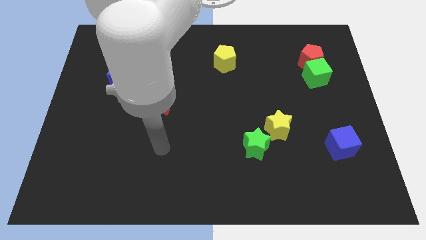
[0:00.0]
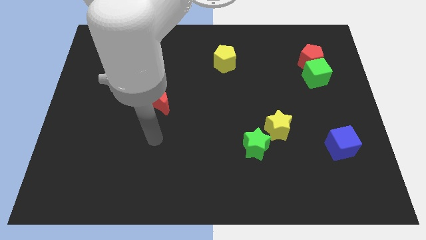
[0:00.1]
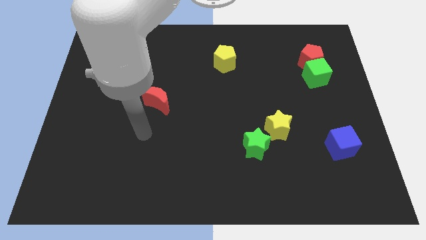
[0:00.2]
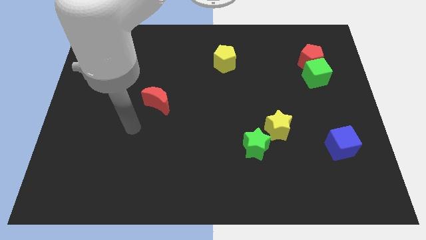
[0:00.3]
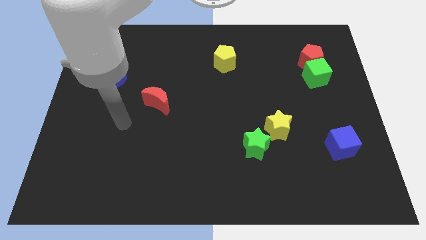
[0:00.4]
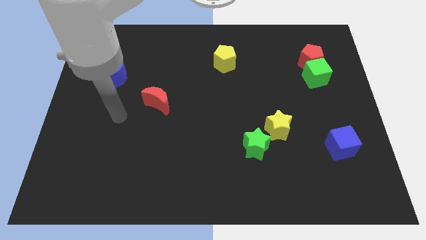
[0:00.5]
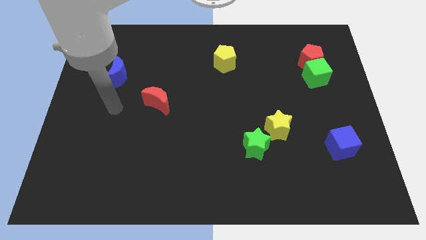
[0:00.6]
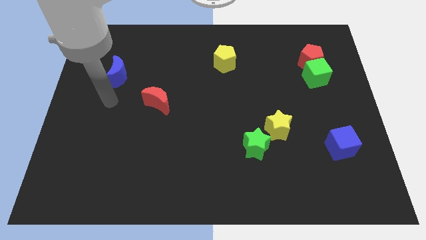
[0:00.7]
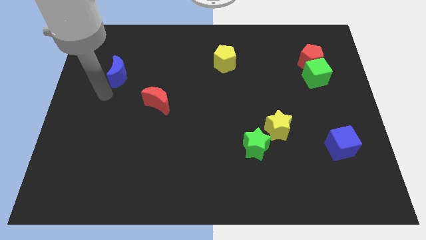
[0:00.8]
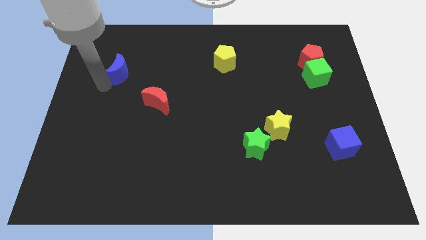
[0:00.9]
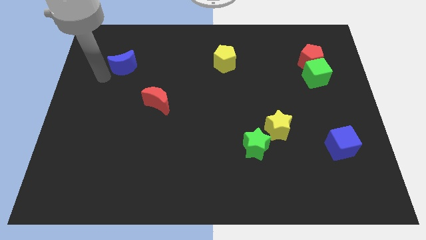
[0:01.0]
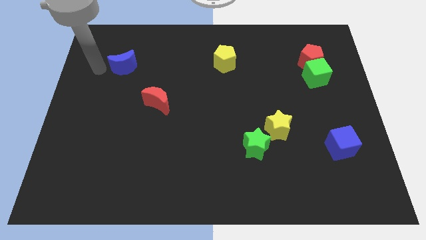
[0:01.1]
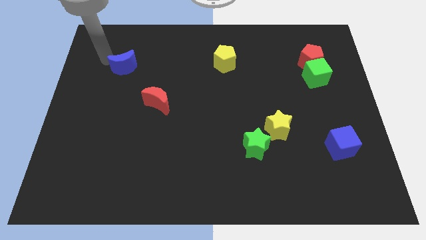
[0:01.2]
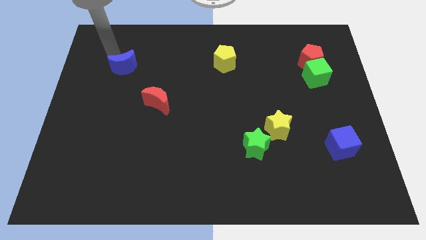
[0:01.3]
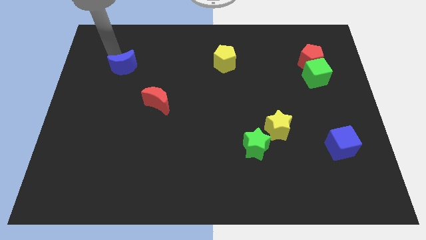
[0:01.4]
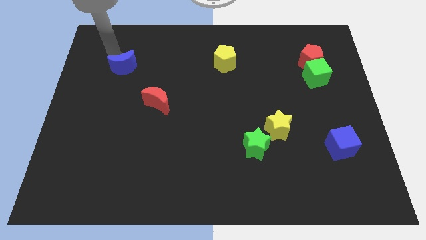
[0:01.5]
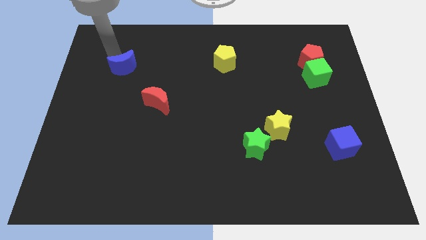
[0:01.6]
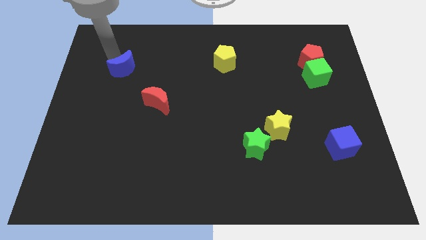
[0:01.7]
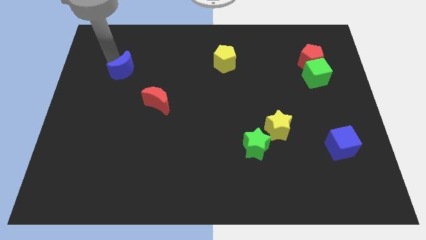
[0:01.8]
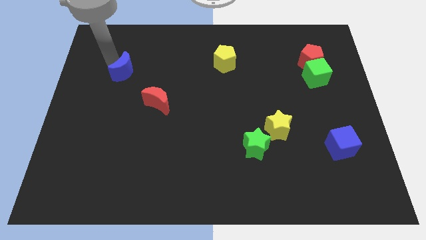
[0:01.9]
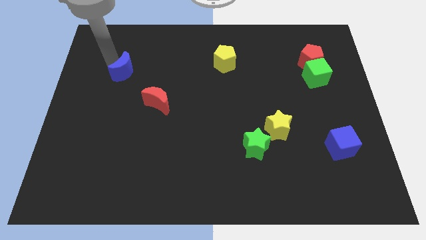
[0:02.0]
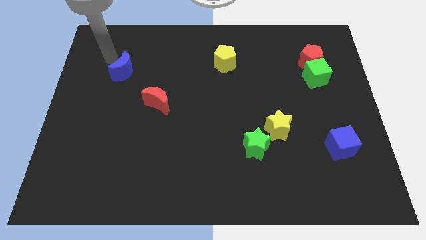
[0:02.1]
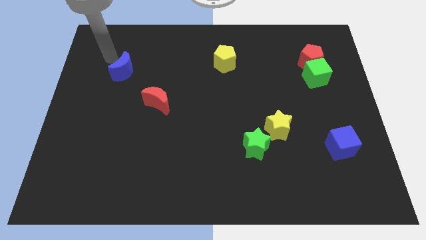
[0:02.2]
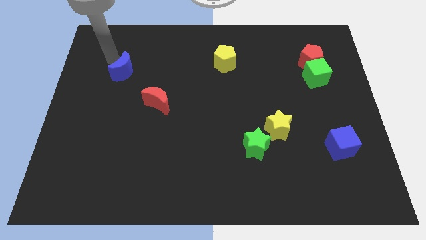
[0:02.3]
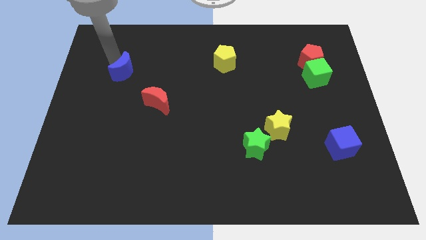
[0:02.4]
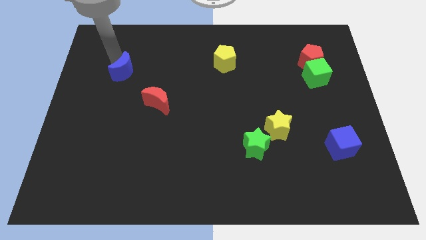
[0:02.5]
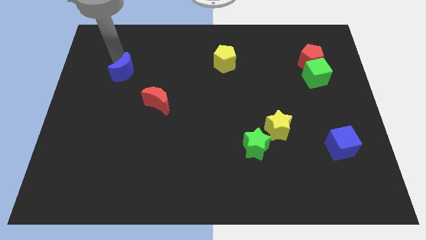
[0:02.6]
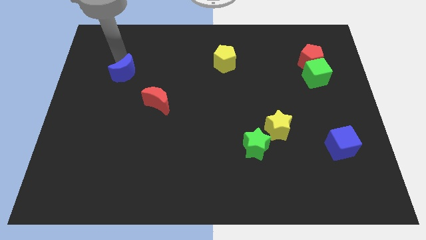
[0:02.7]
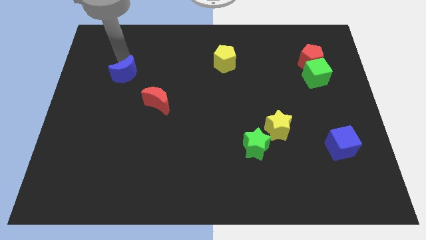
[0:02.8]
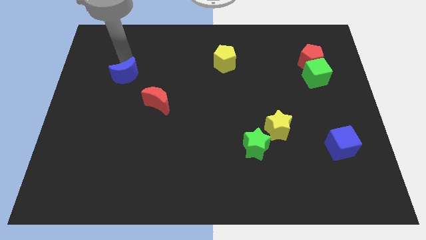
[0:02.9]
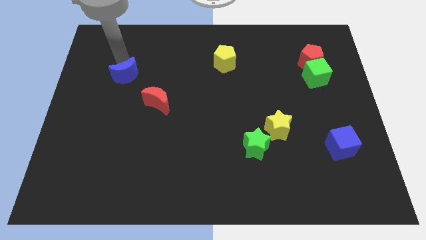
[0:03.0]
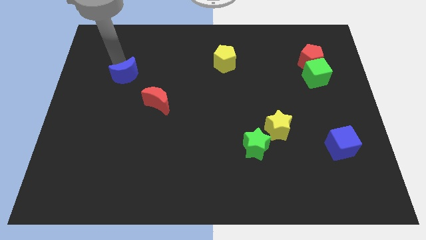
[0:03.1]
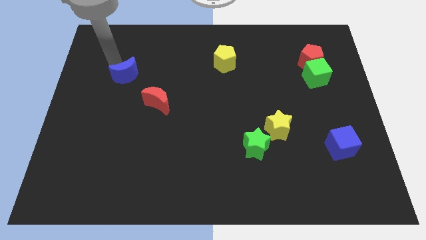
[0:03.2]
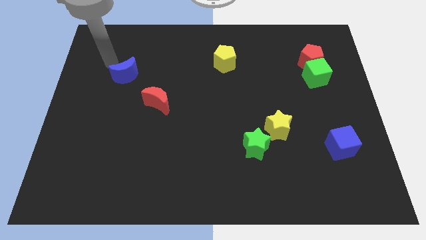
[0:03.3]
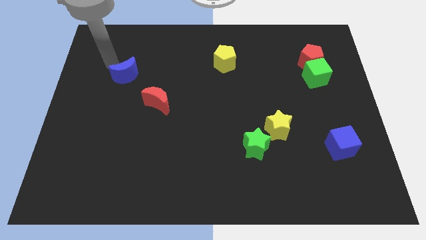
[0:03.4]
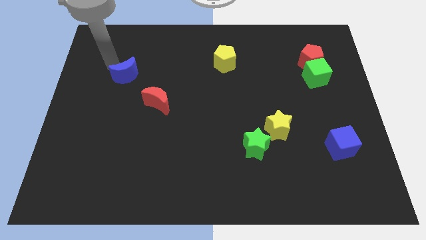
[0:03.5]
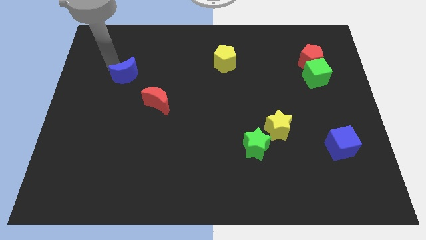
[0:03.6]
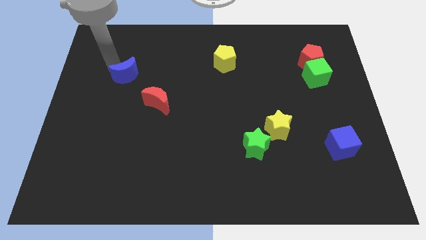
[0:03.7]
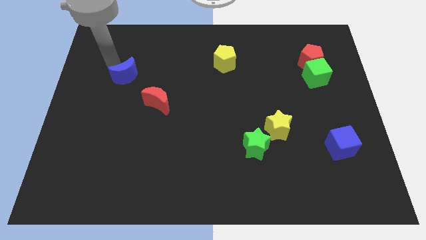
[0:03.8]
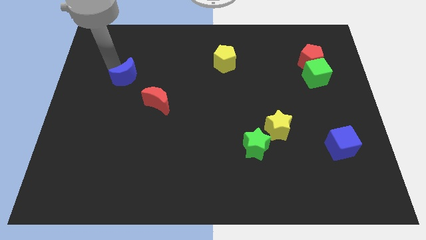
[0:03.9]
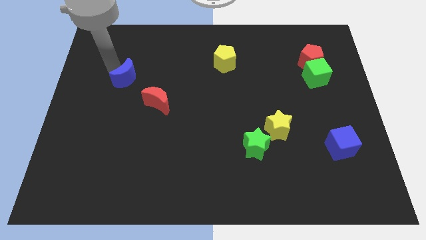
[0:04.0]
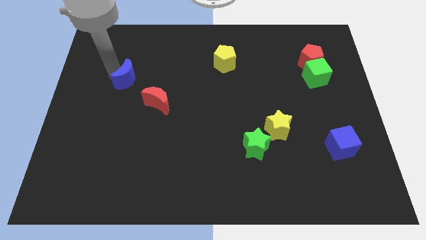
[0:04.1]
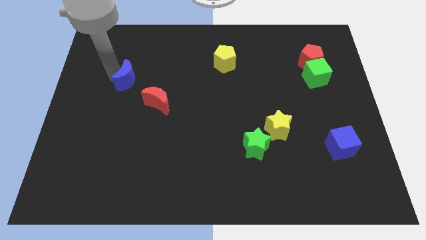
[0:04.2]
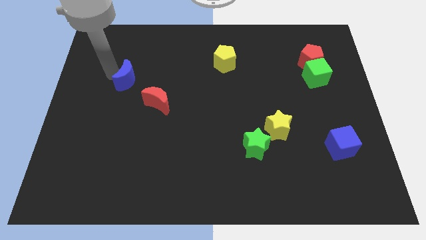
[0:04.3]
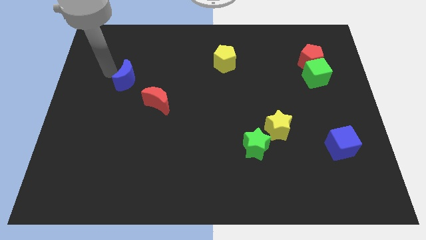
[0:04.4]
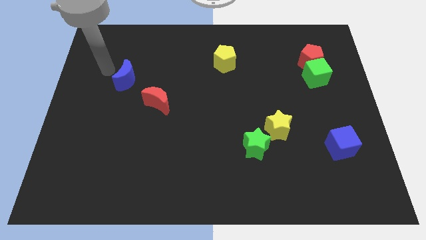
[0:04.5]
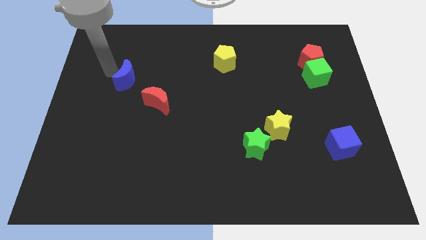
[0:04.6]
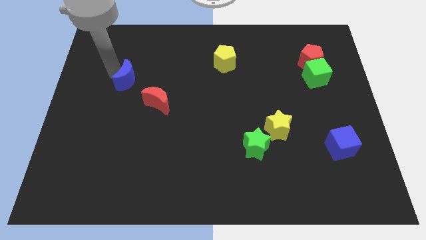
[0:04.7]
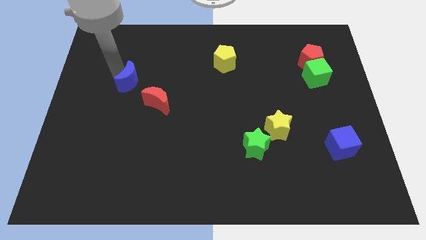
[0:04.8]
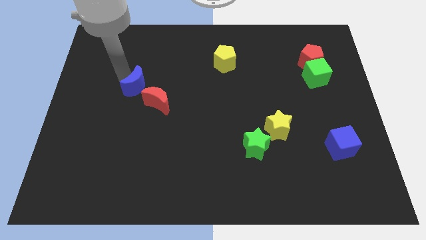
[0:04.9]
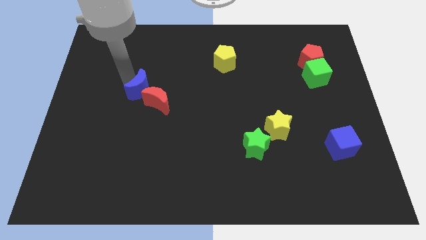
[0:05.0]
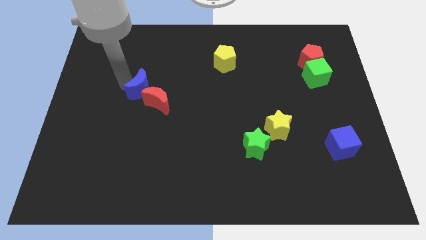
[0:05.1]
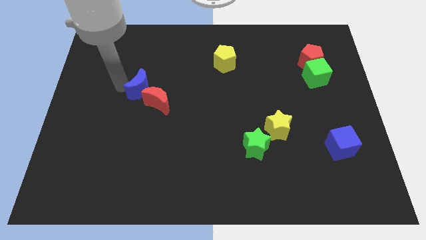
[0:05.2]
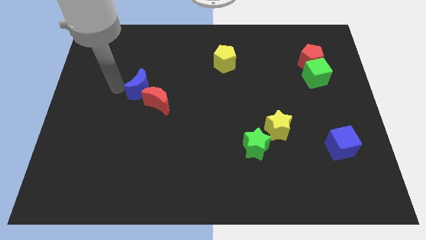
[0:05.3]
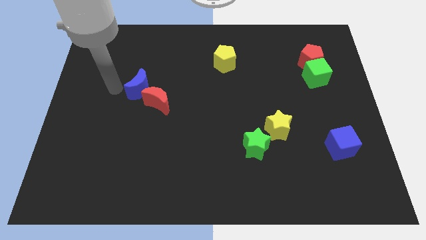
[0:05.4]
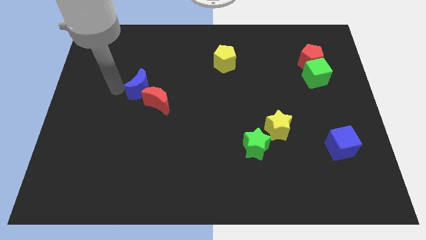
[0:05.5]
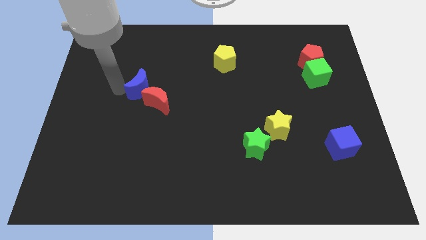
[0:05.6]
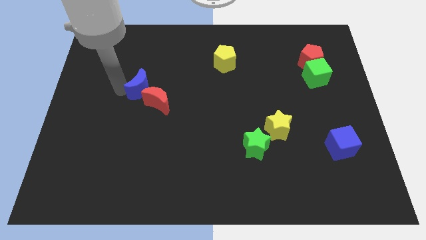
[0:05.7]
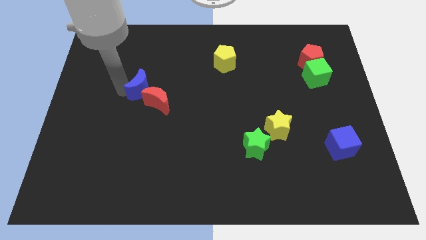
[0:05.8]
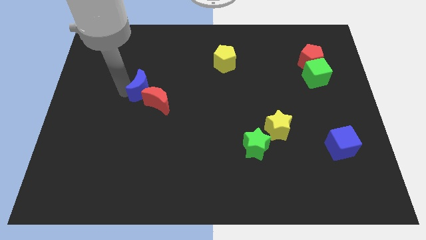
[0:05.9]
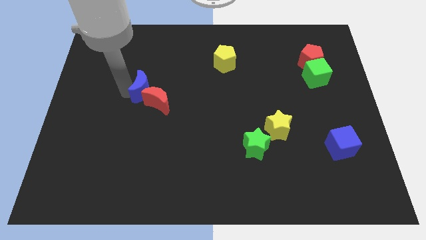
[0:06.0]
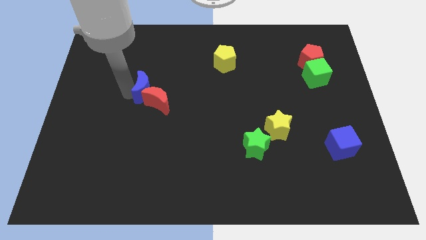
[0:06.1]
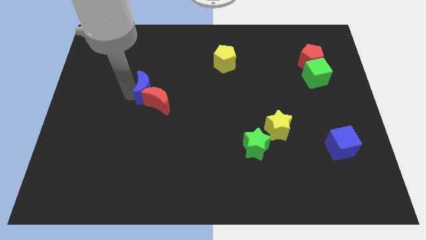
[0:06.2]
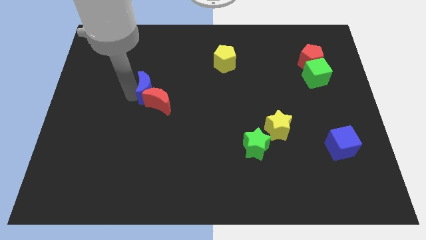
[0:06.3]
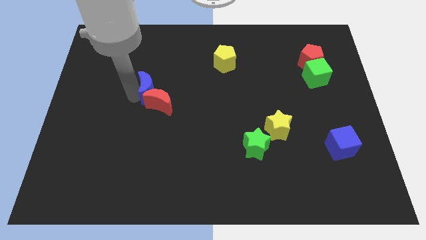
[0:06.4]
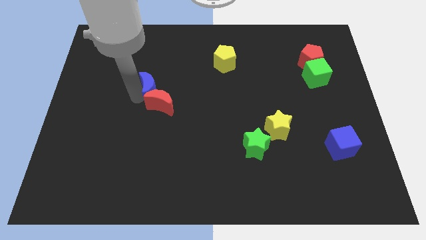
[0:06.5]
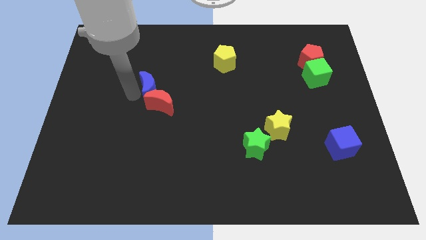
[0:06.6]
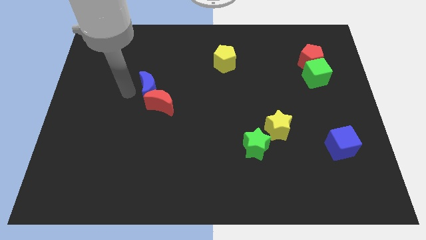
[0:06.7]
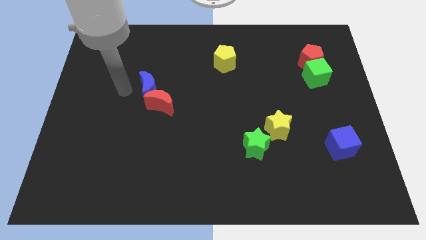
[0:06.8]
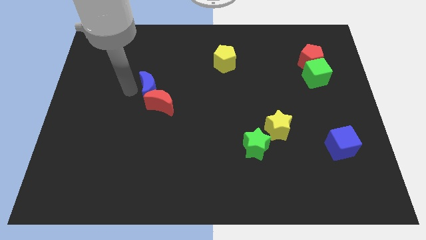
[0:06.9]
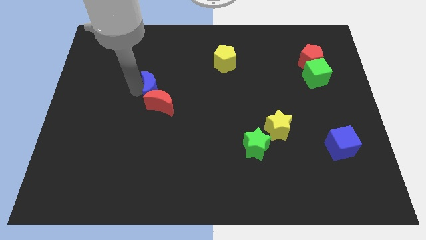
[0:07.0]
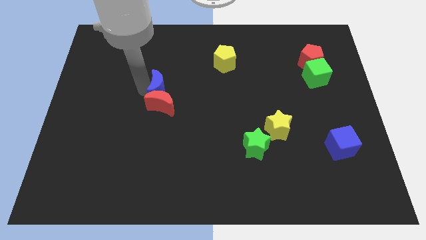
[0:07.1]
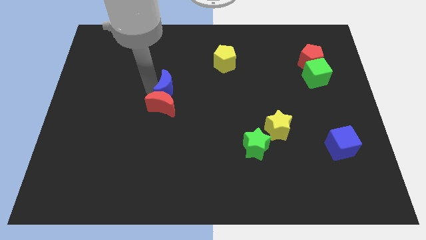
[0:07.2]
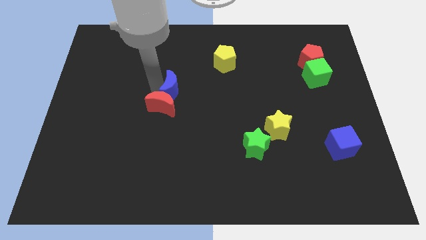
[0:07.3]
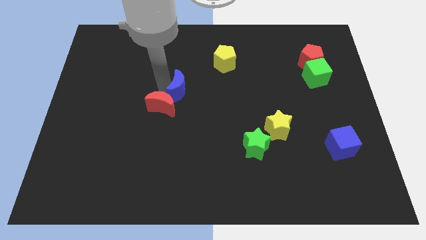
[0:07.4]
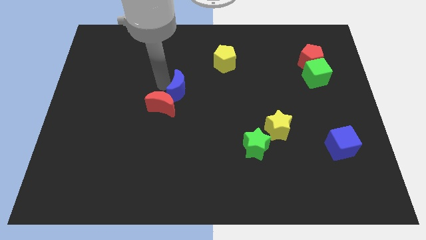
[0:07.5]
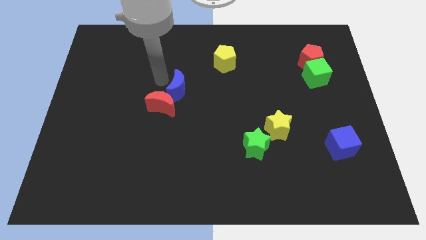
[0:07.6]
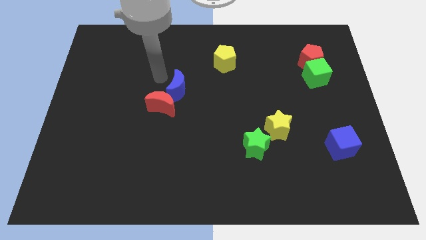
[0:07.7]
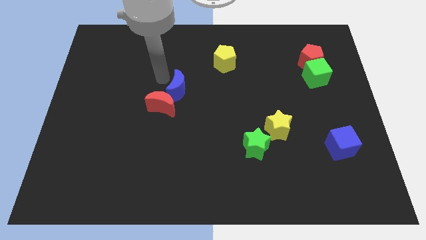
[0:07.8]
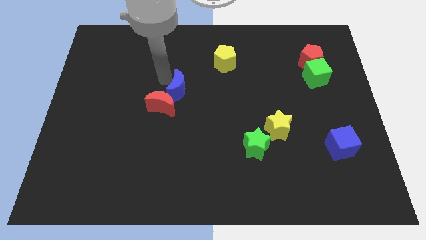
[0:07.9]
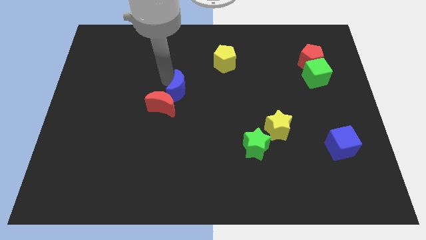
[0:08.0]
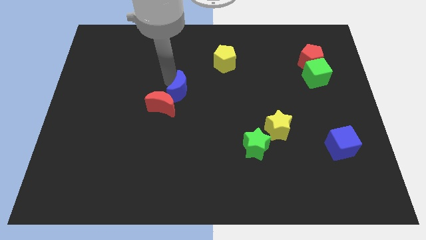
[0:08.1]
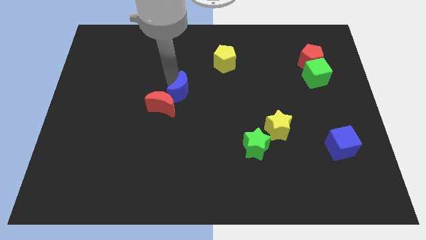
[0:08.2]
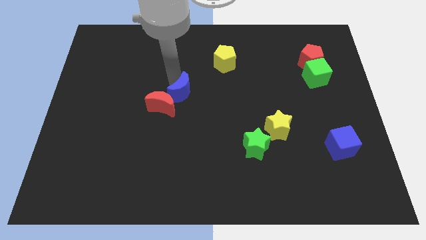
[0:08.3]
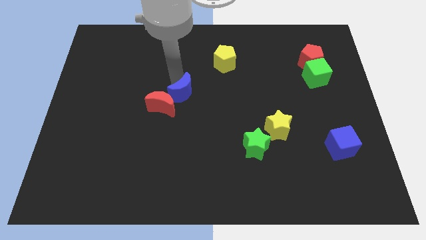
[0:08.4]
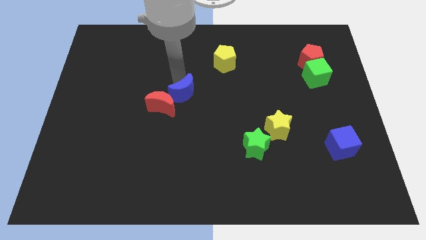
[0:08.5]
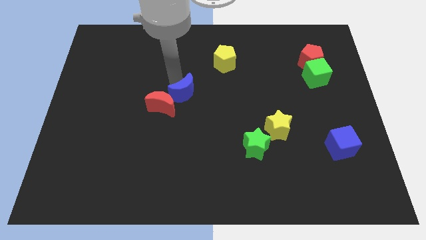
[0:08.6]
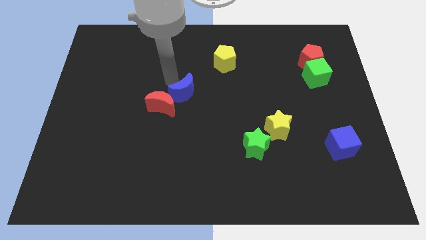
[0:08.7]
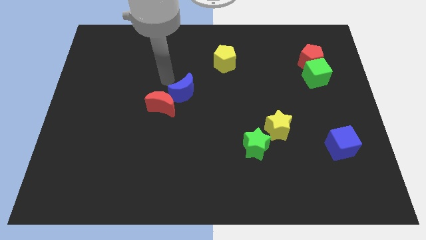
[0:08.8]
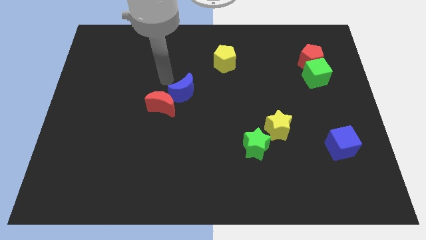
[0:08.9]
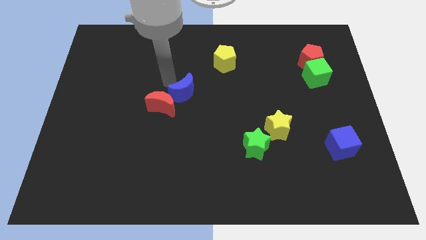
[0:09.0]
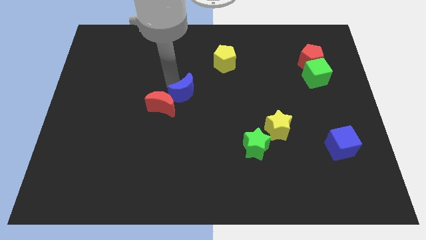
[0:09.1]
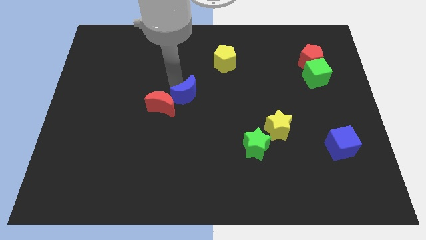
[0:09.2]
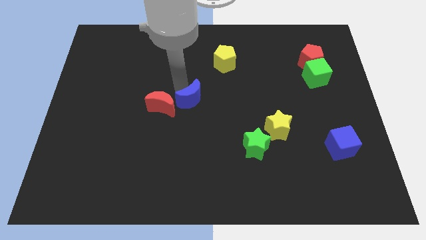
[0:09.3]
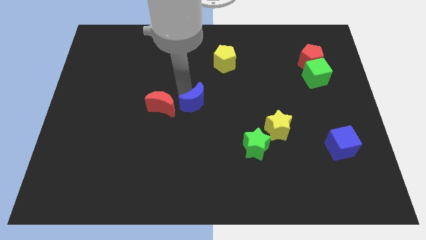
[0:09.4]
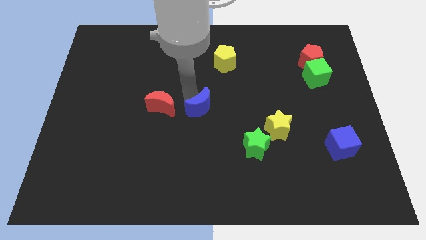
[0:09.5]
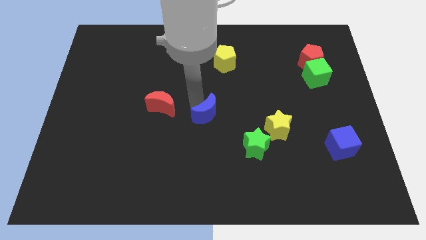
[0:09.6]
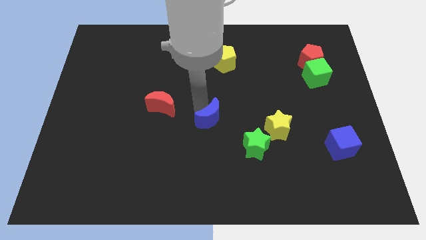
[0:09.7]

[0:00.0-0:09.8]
move the blue moon to the left of the yellow star
